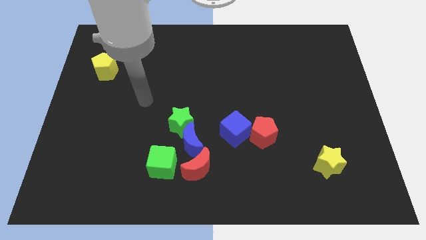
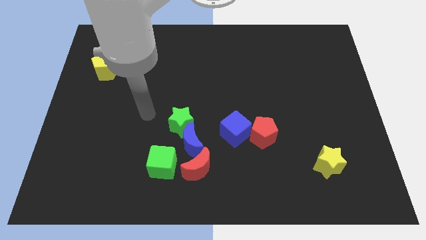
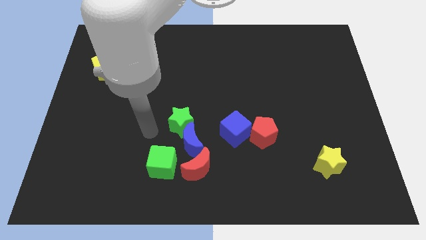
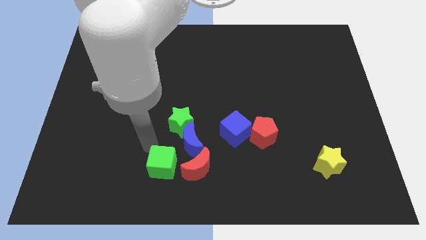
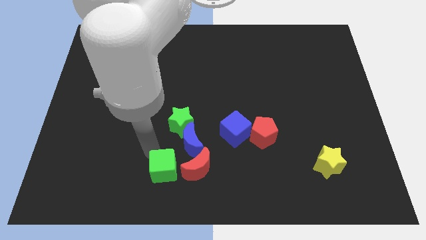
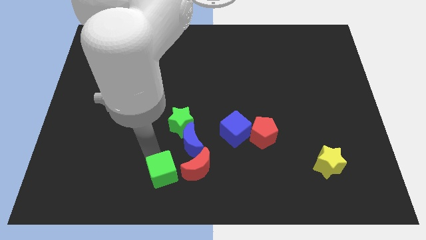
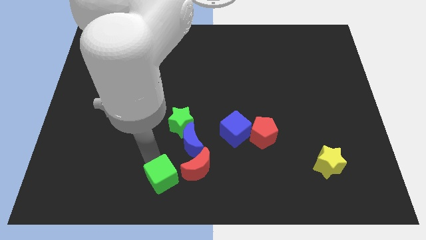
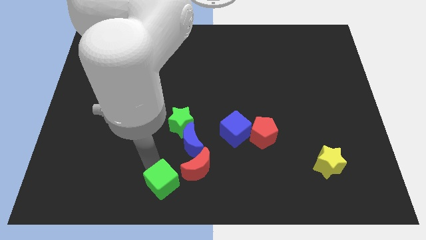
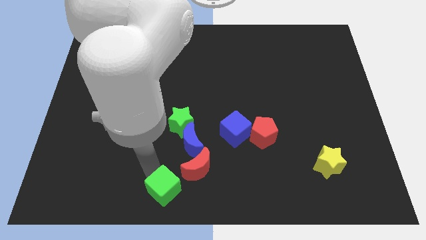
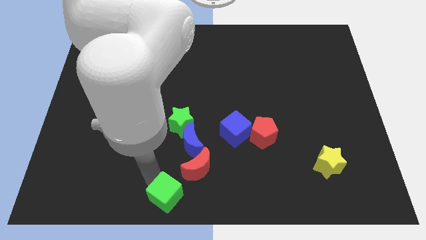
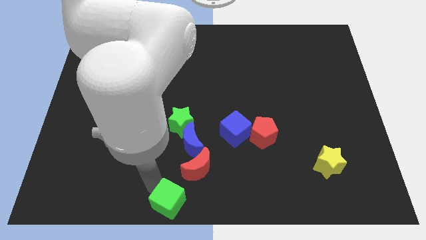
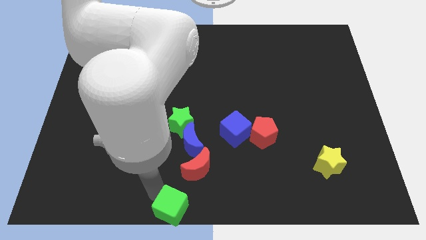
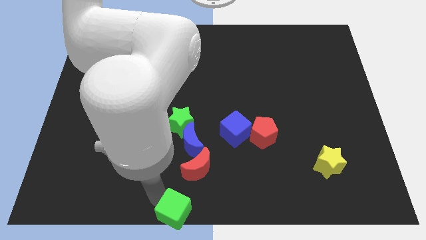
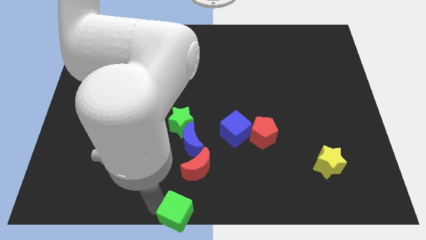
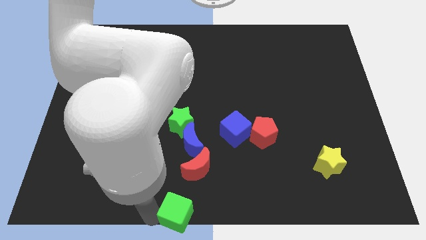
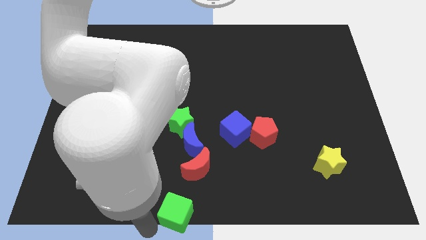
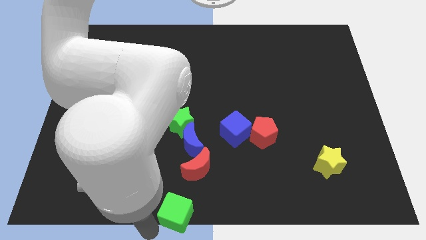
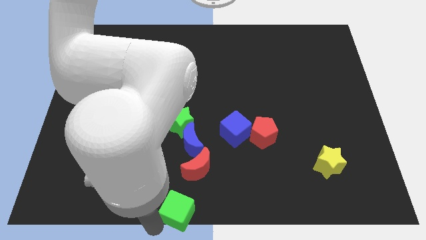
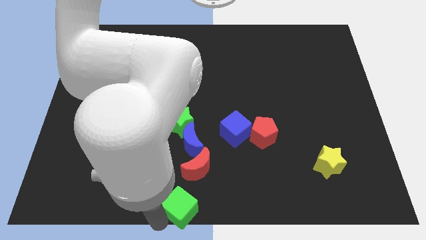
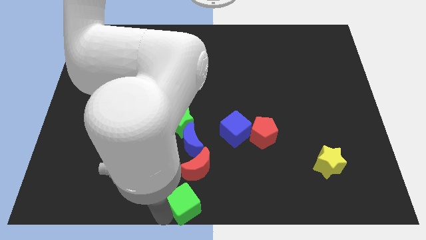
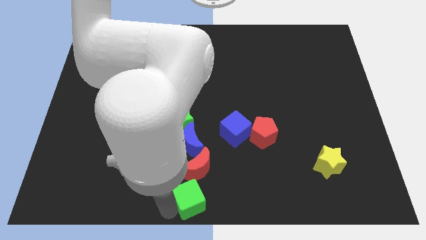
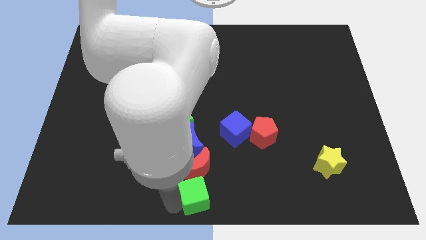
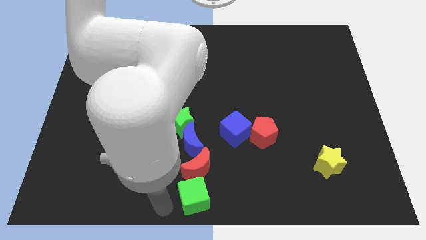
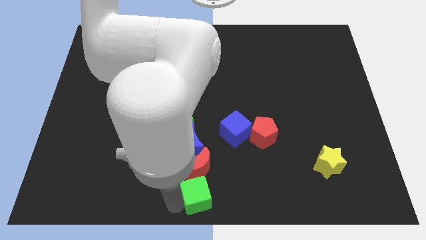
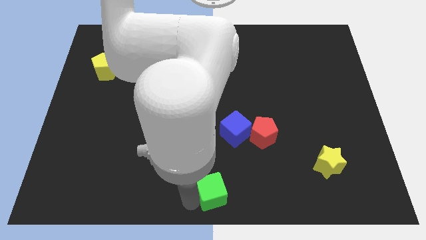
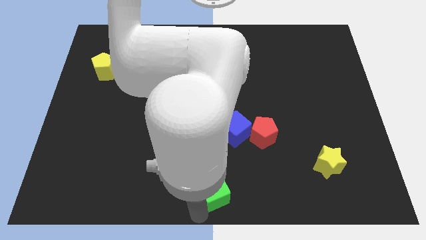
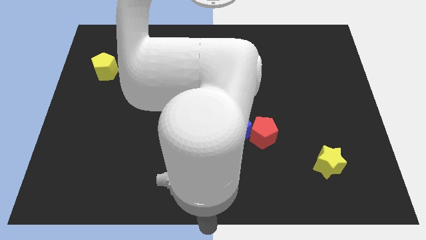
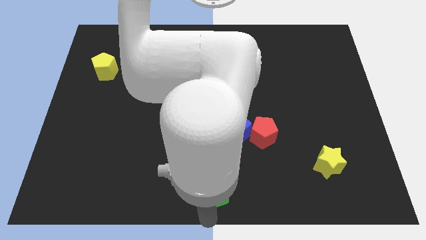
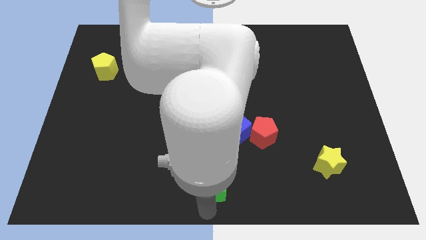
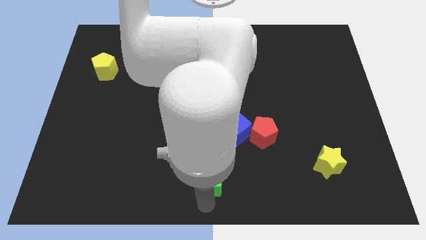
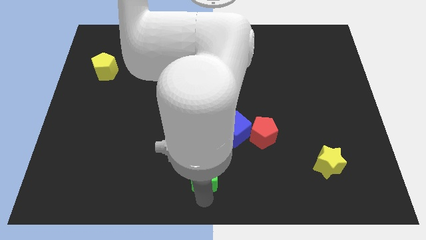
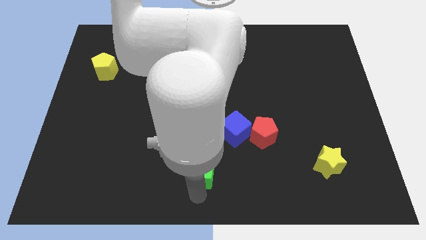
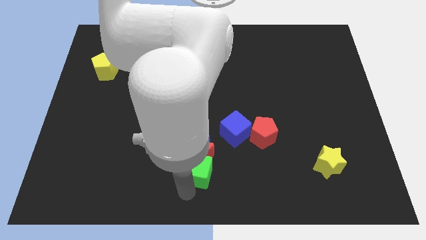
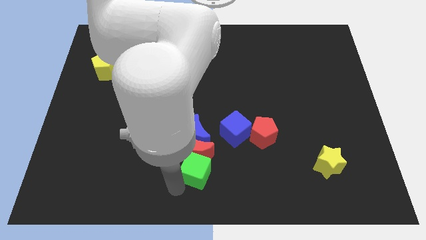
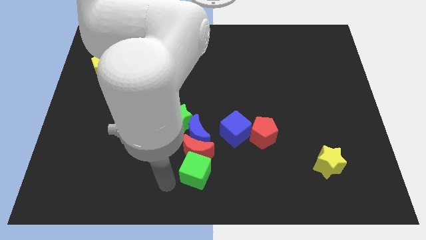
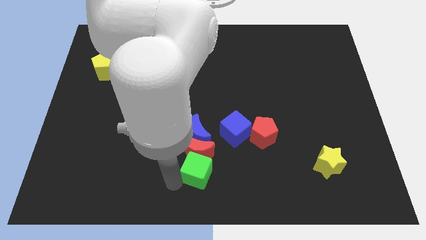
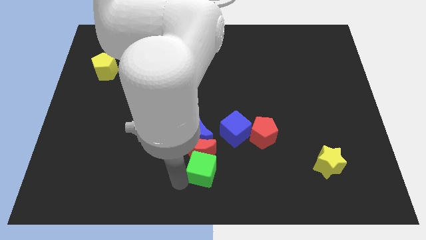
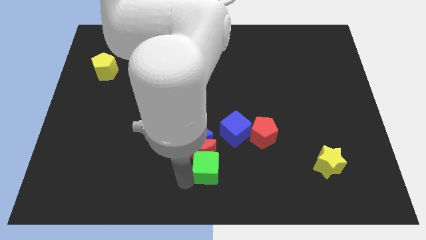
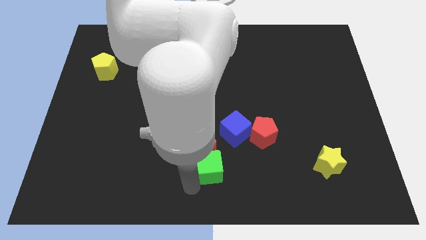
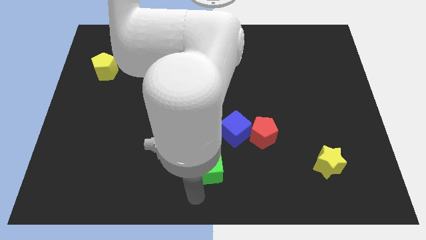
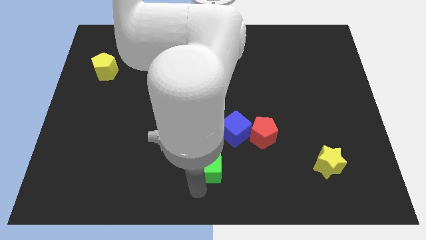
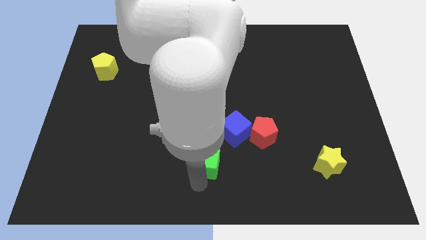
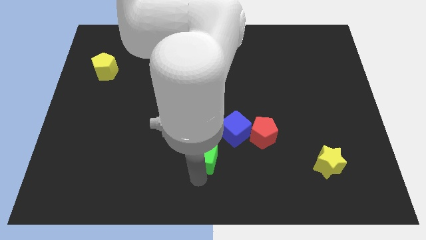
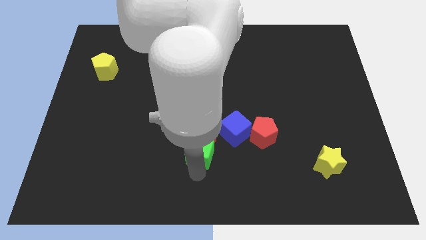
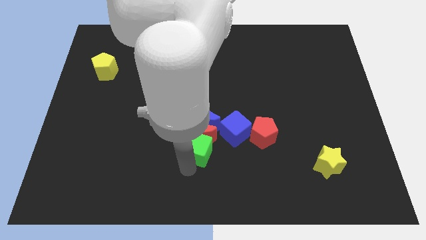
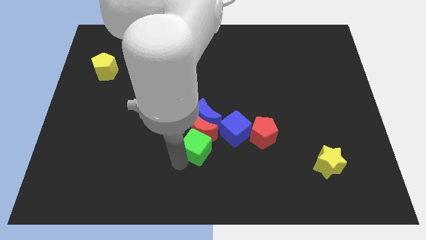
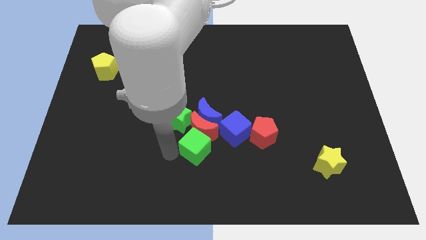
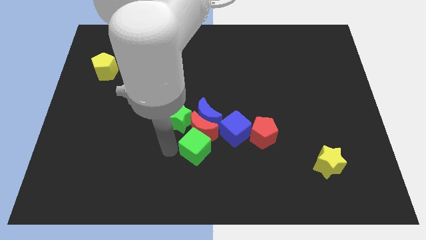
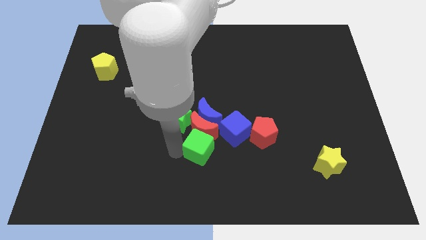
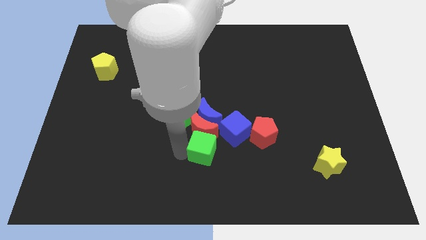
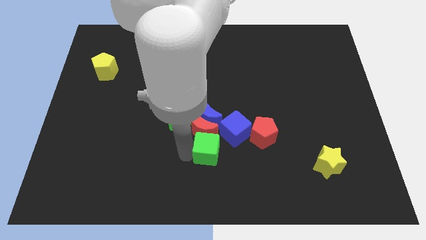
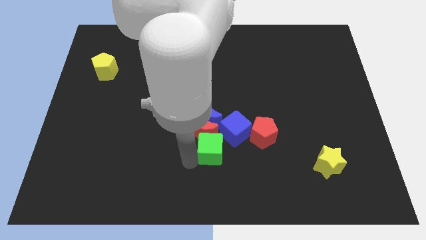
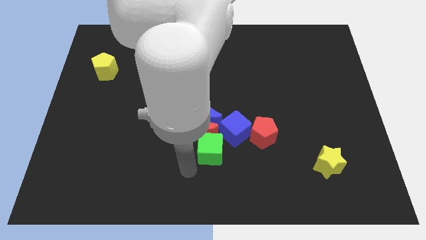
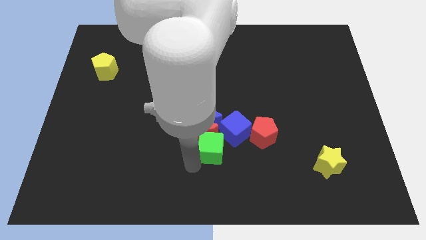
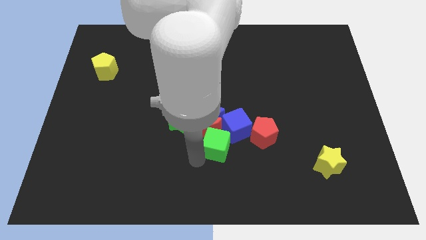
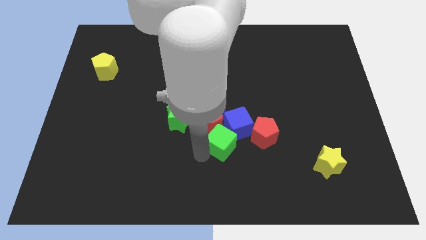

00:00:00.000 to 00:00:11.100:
put the green cube next to the blue cube

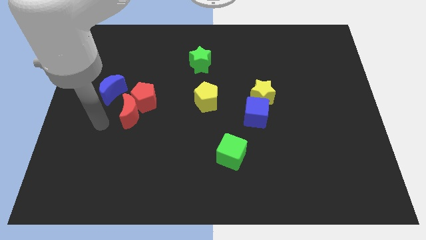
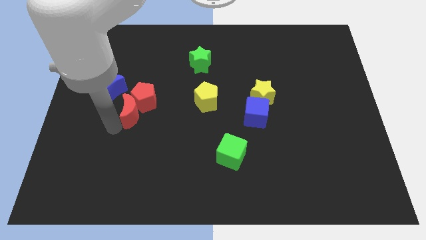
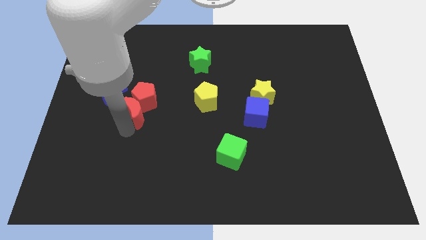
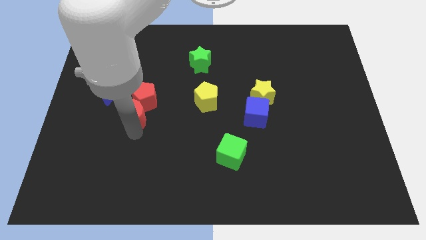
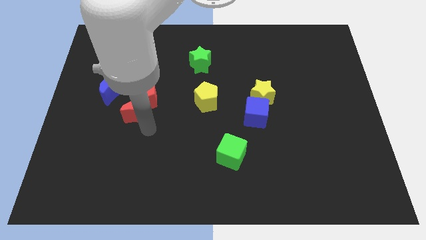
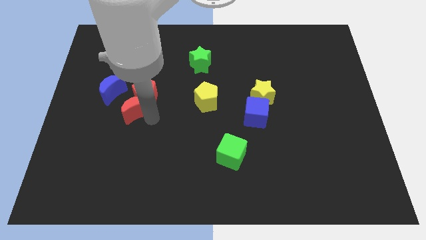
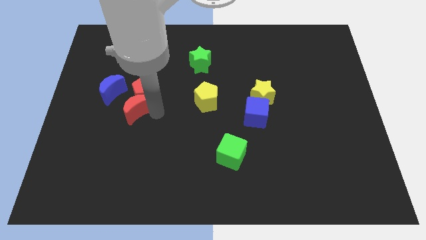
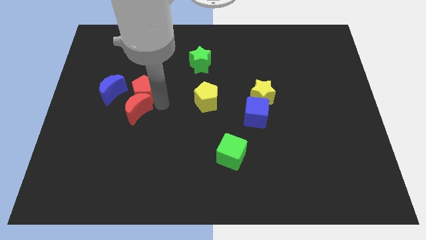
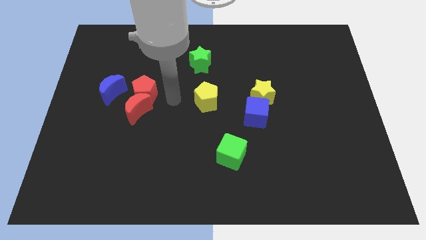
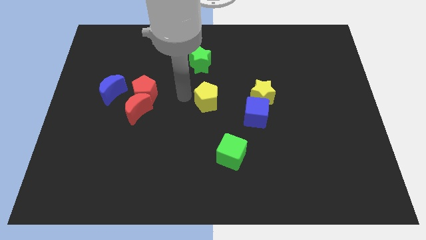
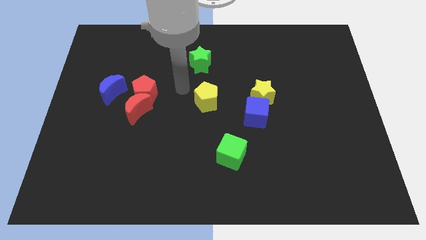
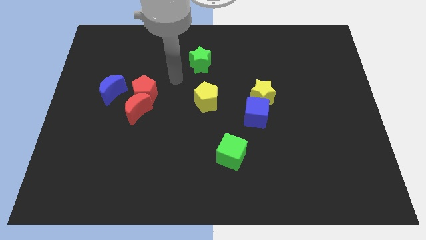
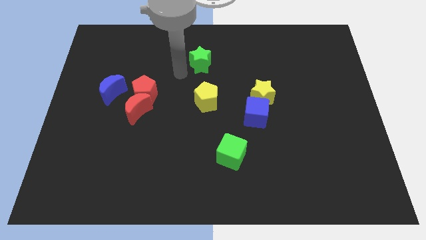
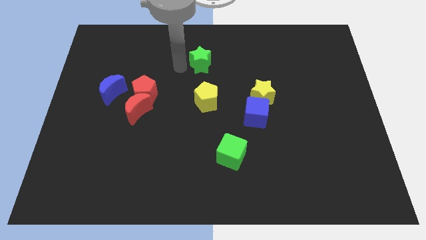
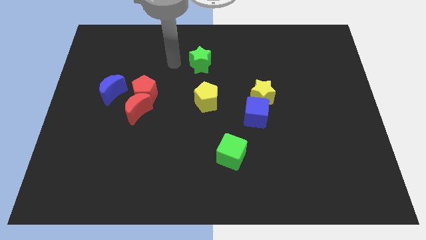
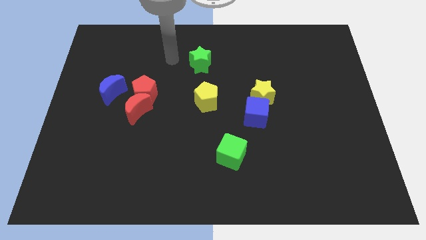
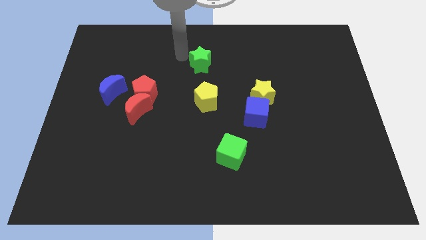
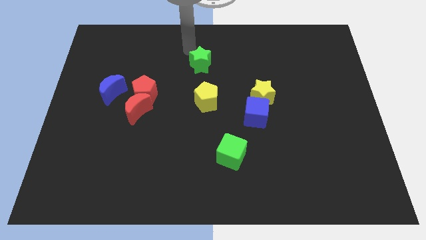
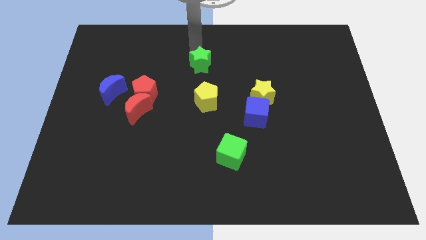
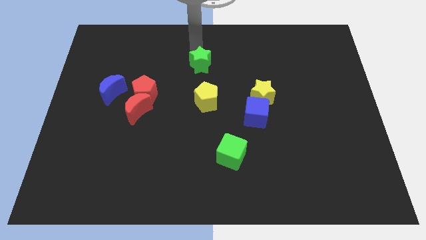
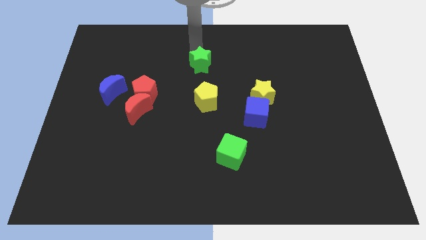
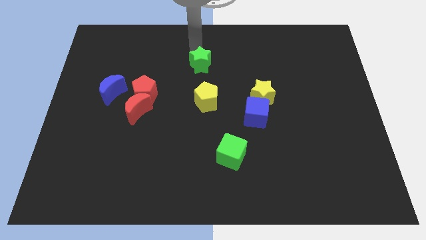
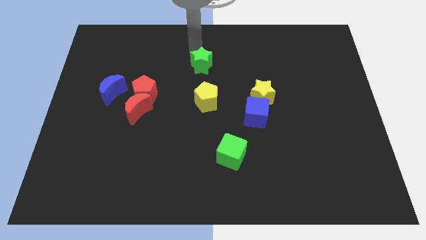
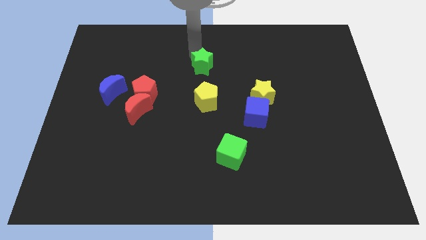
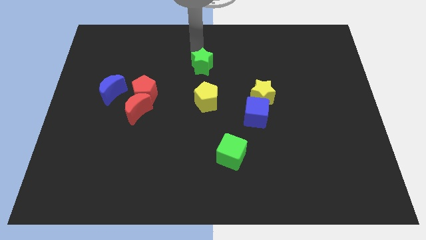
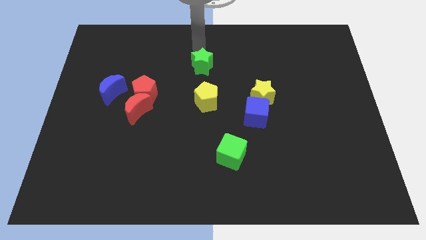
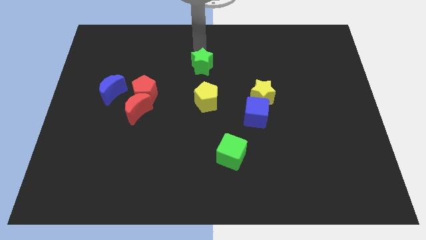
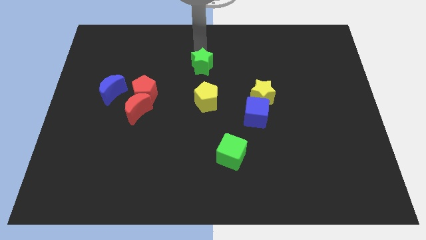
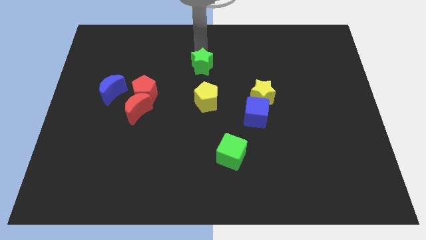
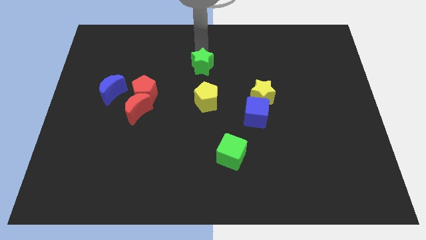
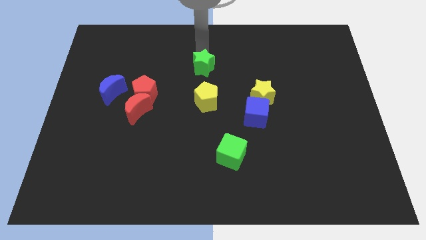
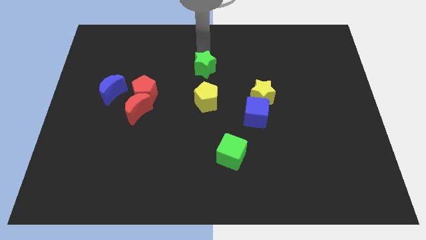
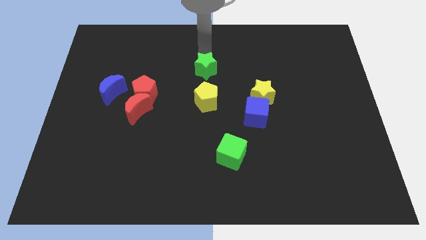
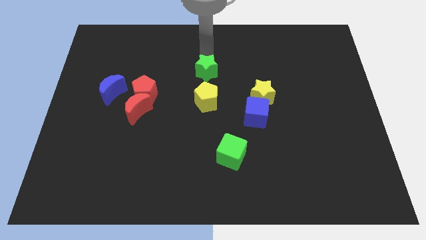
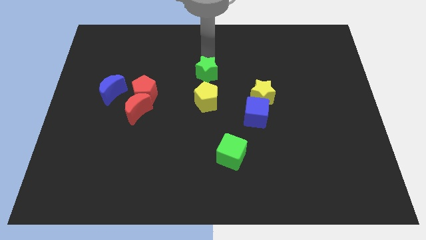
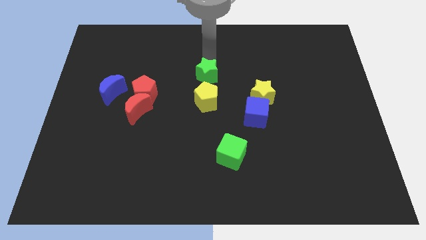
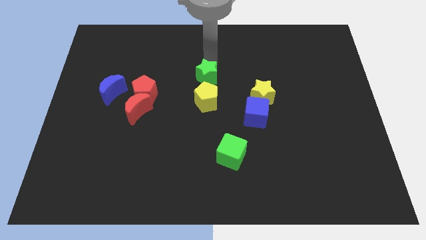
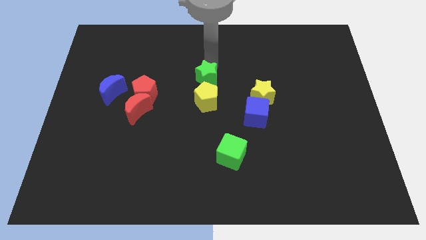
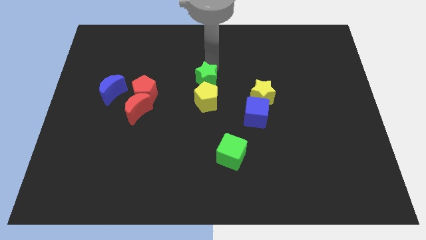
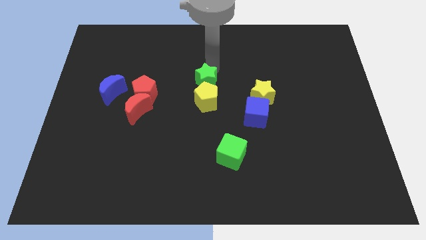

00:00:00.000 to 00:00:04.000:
push the green star close to the yellow pentagon
